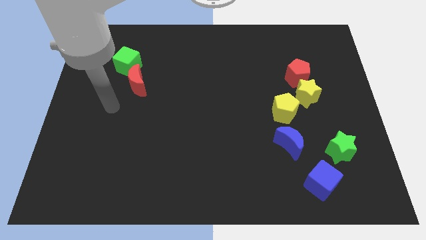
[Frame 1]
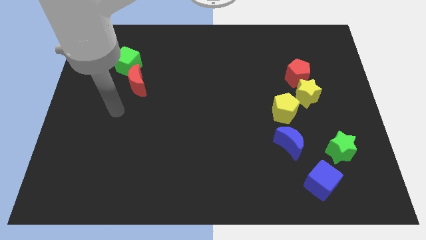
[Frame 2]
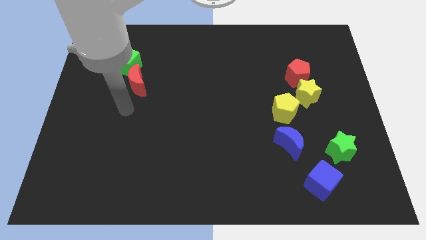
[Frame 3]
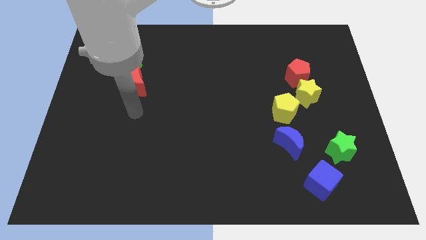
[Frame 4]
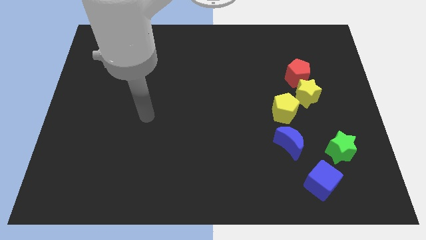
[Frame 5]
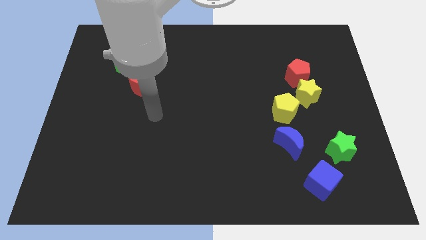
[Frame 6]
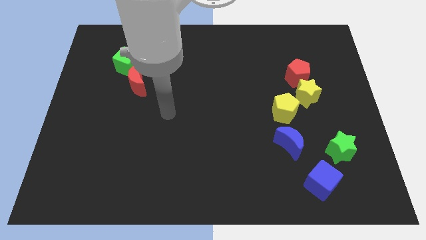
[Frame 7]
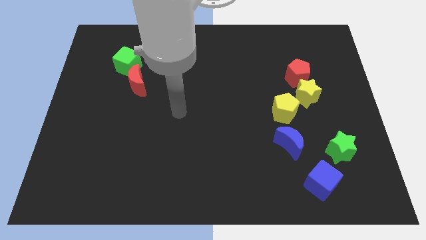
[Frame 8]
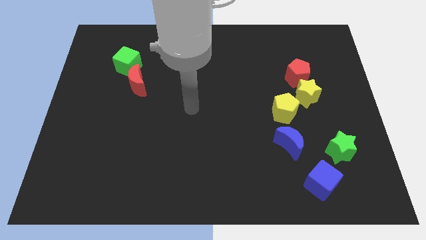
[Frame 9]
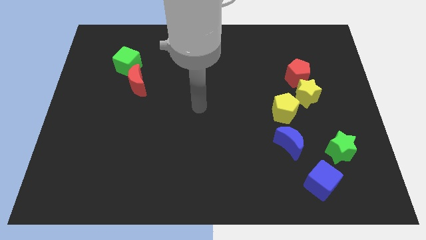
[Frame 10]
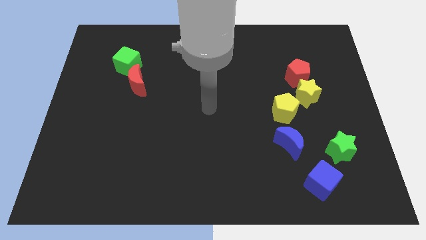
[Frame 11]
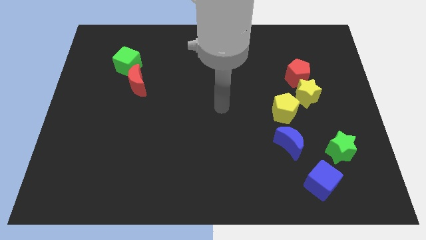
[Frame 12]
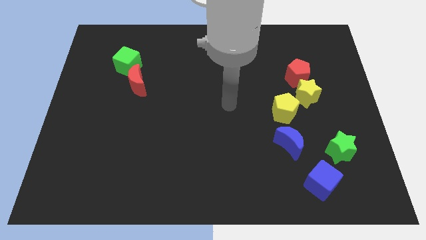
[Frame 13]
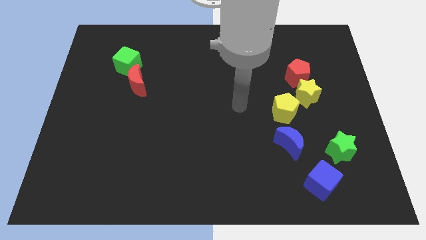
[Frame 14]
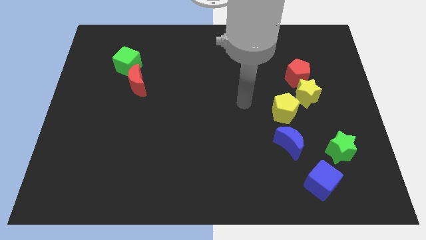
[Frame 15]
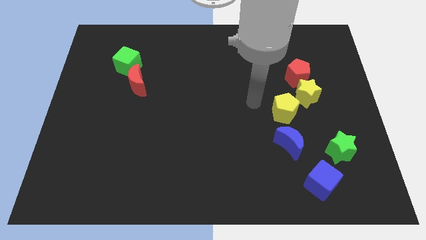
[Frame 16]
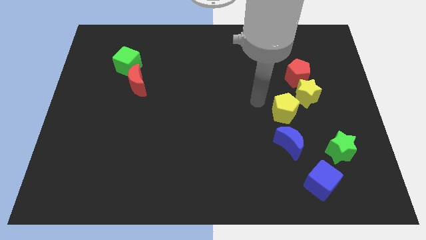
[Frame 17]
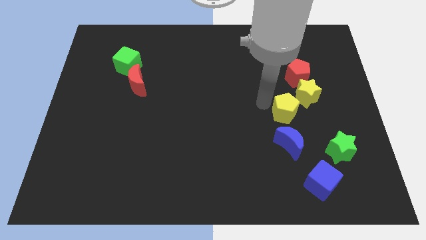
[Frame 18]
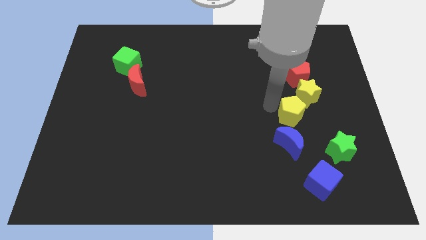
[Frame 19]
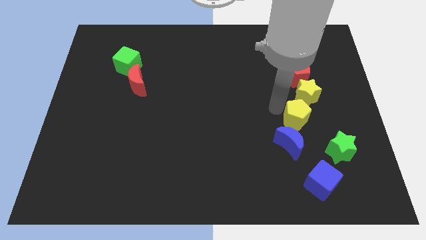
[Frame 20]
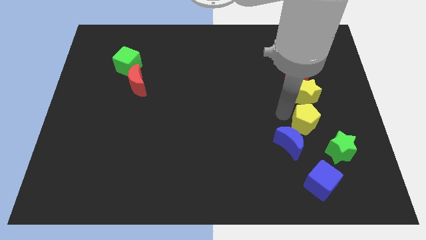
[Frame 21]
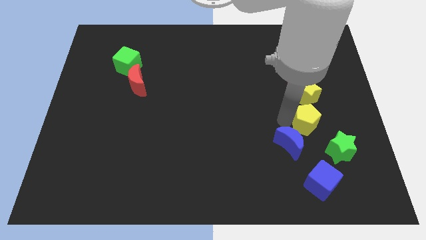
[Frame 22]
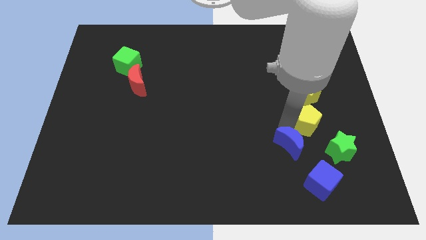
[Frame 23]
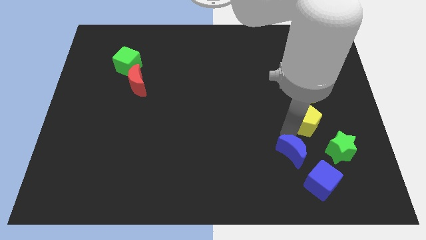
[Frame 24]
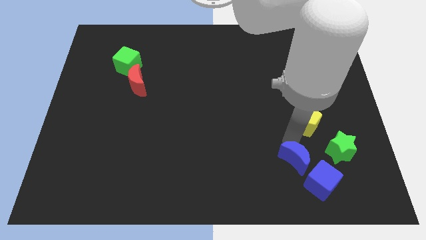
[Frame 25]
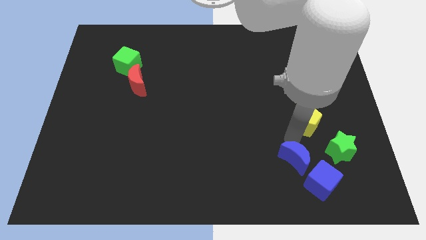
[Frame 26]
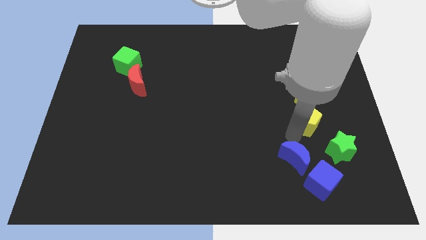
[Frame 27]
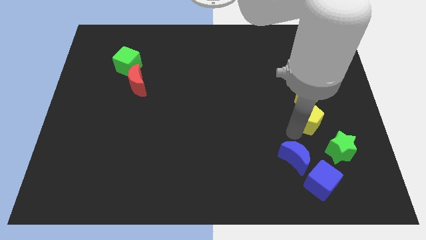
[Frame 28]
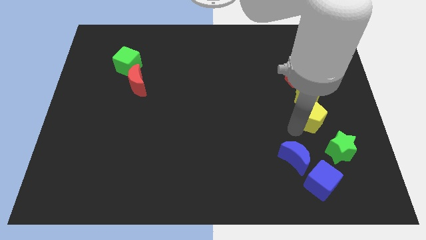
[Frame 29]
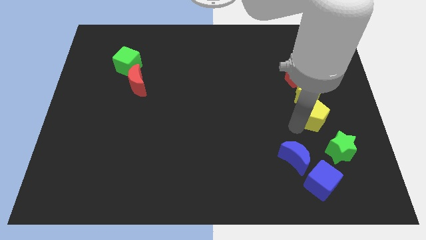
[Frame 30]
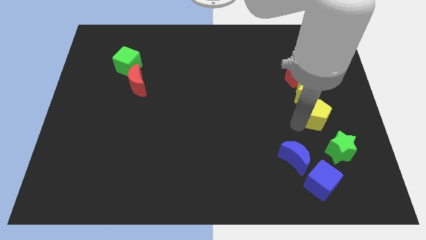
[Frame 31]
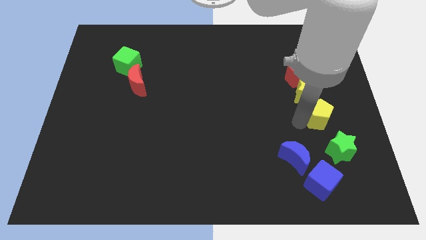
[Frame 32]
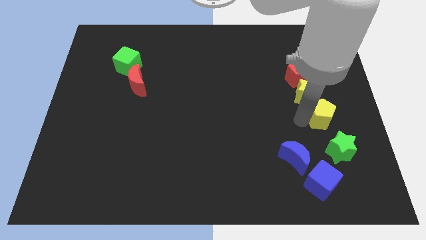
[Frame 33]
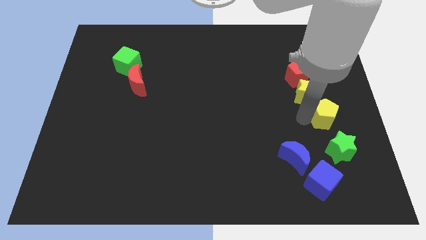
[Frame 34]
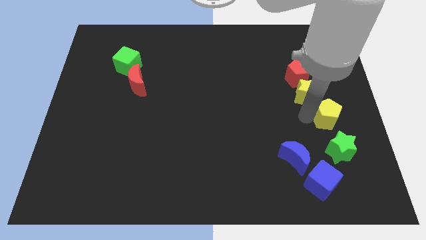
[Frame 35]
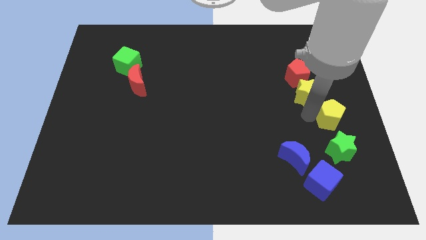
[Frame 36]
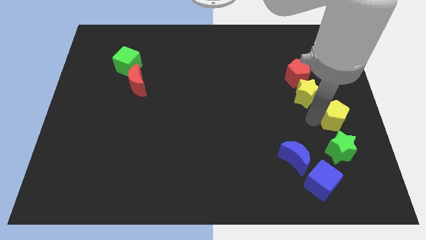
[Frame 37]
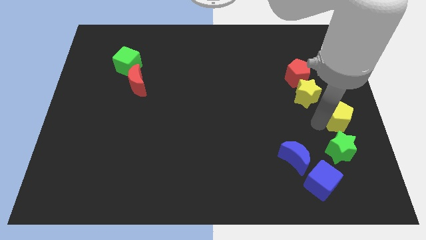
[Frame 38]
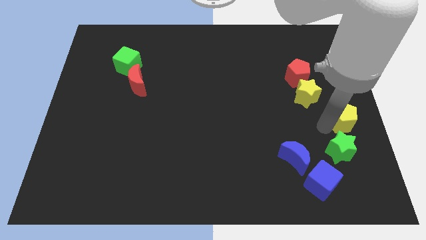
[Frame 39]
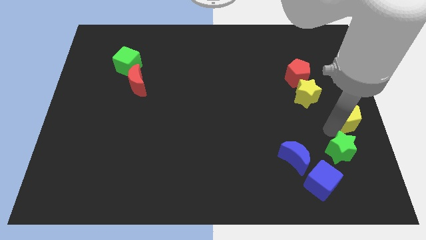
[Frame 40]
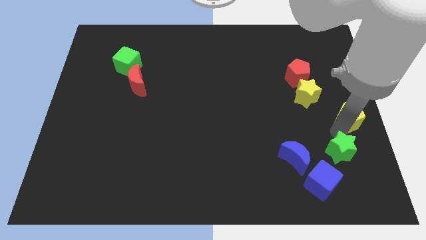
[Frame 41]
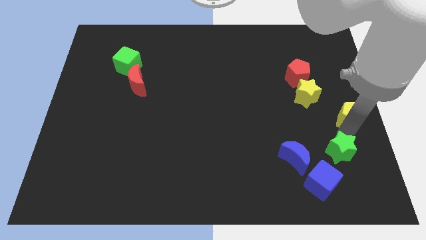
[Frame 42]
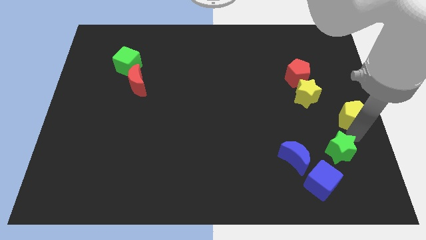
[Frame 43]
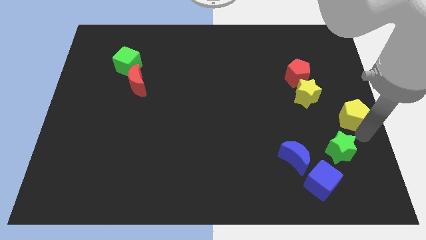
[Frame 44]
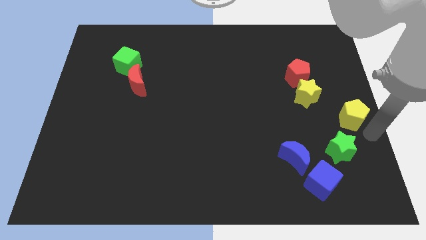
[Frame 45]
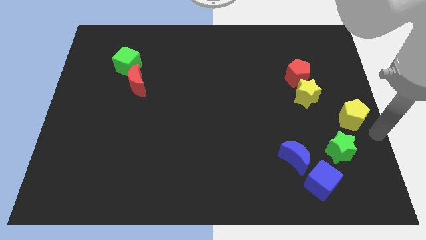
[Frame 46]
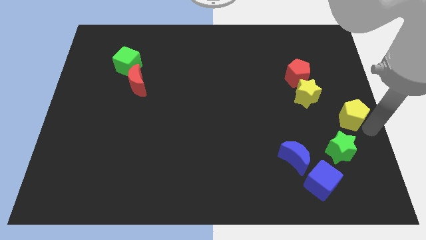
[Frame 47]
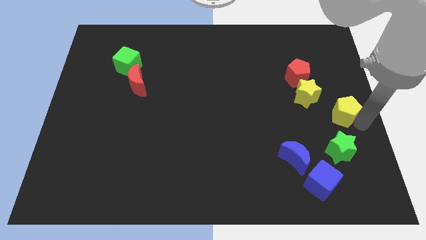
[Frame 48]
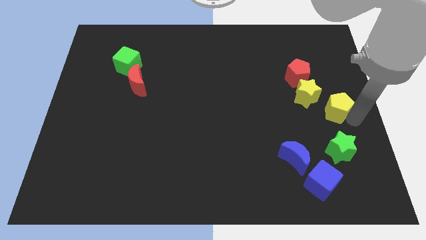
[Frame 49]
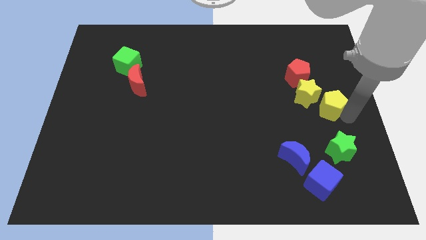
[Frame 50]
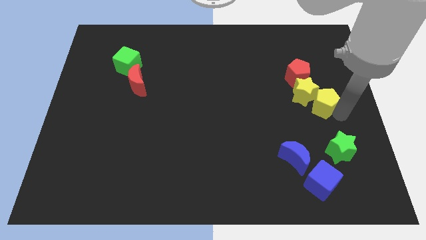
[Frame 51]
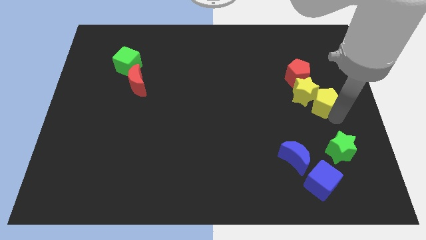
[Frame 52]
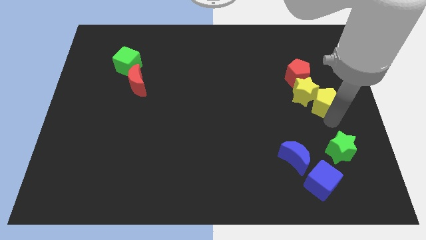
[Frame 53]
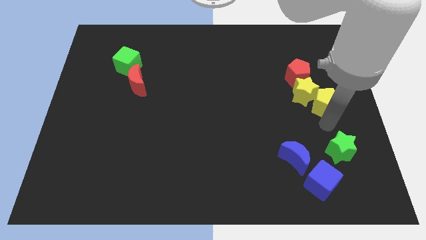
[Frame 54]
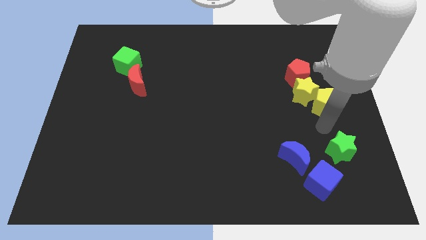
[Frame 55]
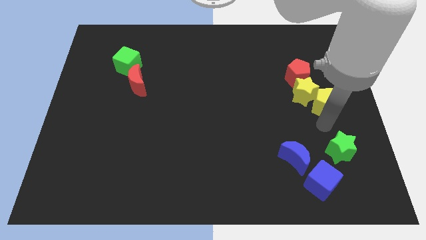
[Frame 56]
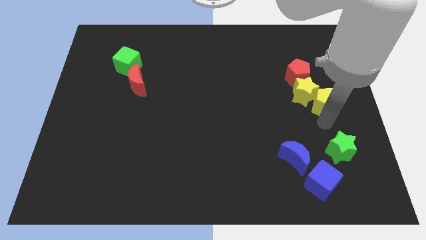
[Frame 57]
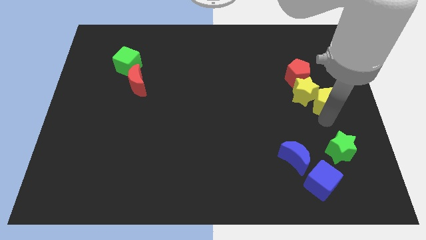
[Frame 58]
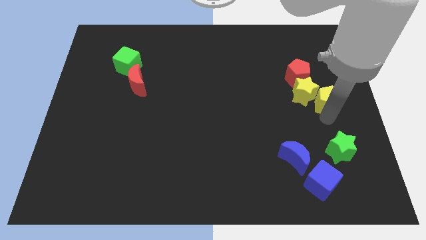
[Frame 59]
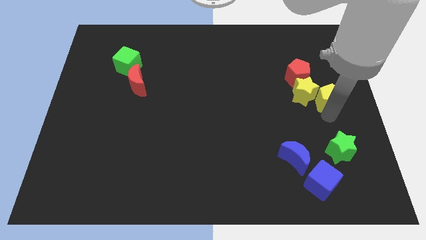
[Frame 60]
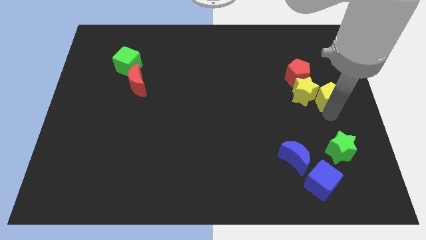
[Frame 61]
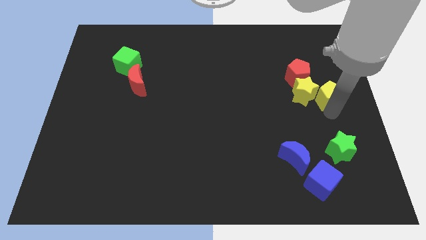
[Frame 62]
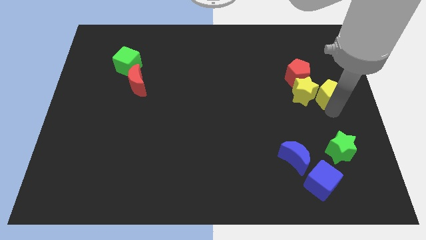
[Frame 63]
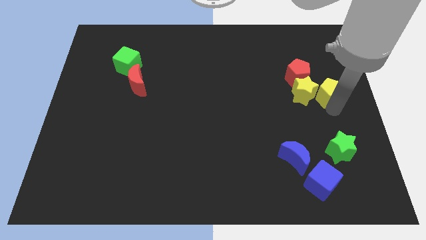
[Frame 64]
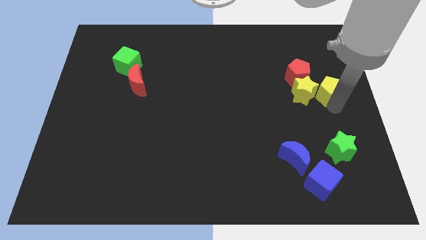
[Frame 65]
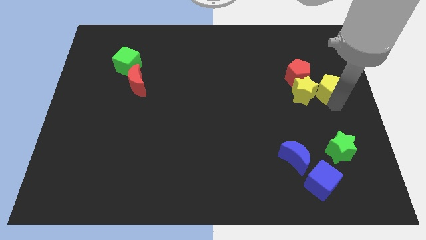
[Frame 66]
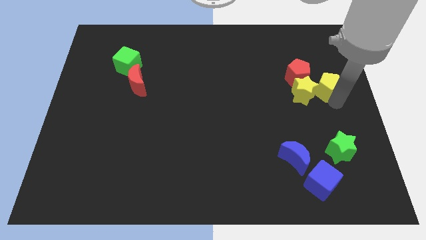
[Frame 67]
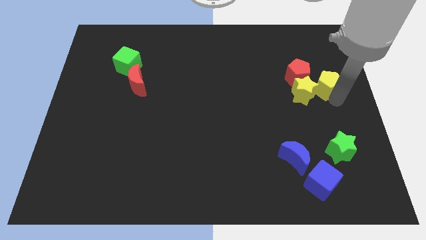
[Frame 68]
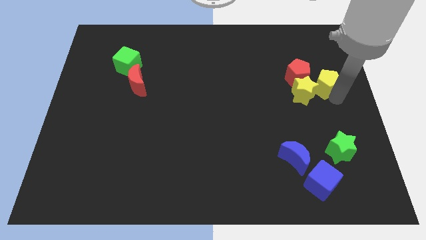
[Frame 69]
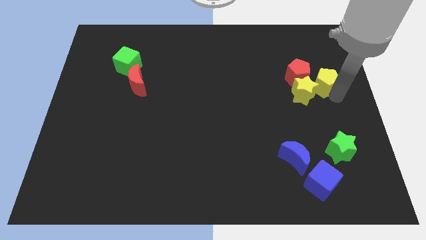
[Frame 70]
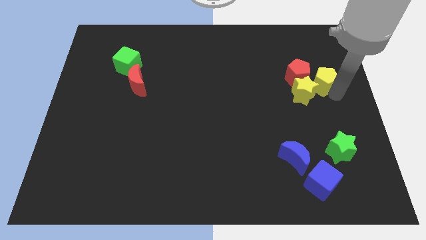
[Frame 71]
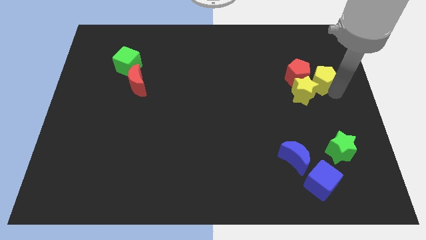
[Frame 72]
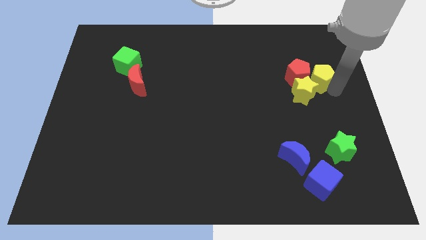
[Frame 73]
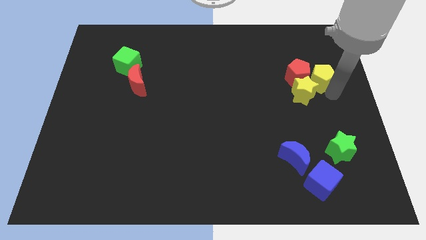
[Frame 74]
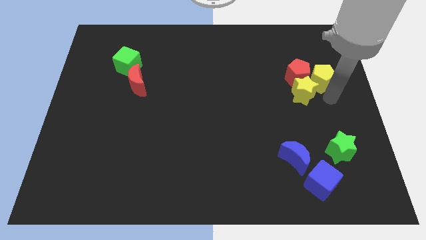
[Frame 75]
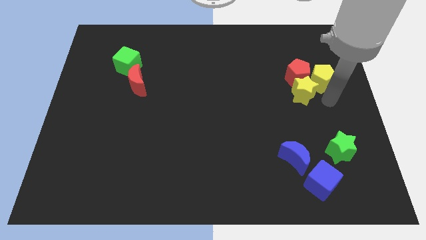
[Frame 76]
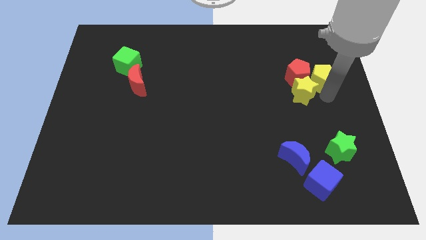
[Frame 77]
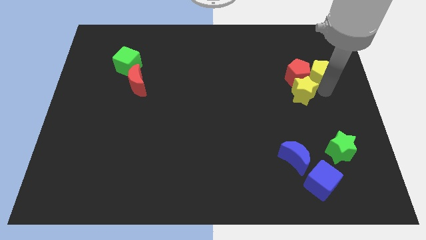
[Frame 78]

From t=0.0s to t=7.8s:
slide the yellow pentagon to the top right of the red pentagon

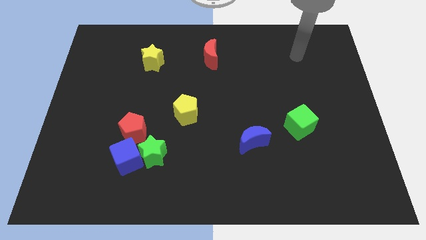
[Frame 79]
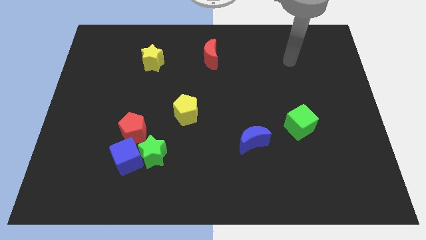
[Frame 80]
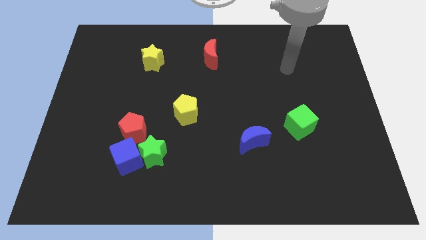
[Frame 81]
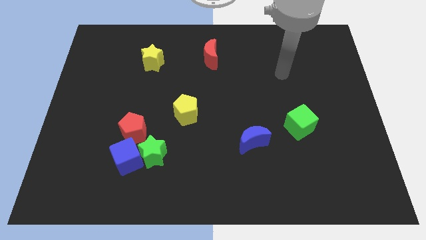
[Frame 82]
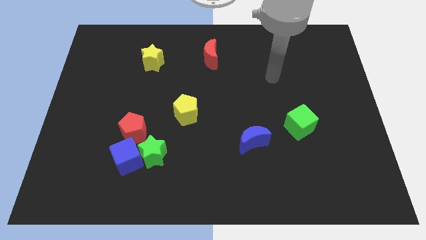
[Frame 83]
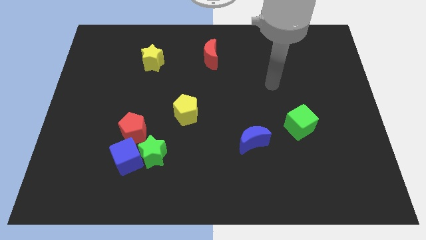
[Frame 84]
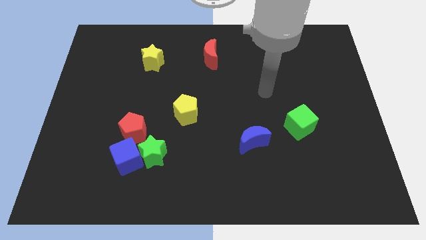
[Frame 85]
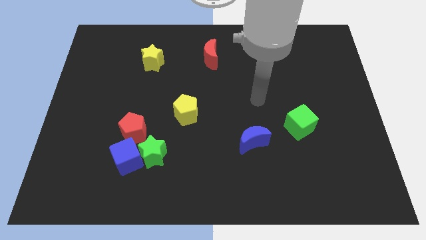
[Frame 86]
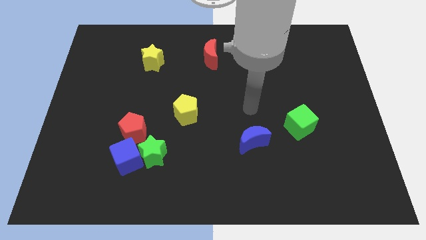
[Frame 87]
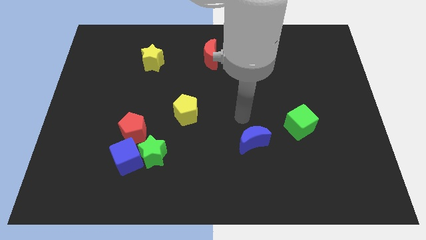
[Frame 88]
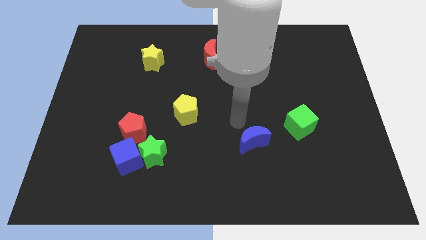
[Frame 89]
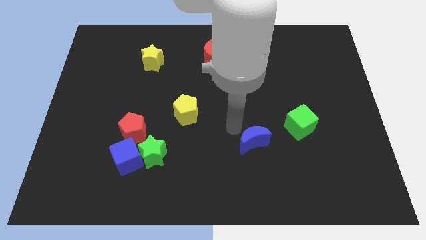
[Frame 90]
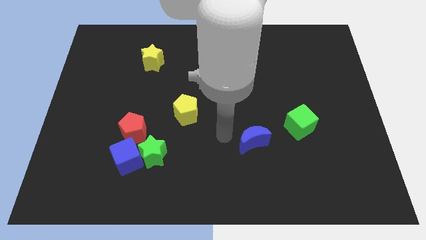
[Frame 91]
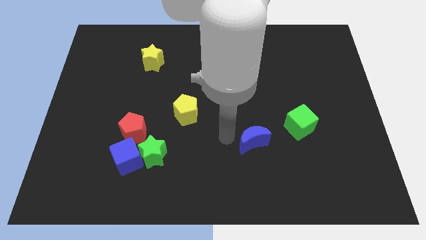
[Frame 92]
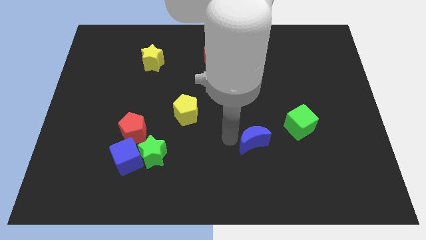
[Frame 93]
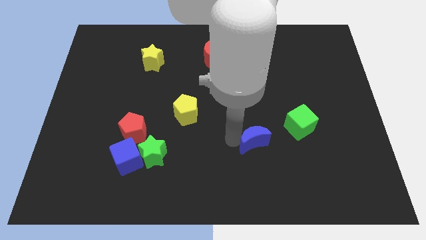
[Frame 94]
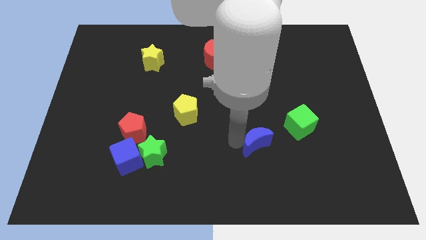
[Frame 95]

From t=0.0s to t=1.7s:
put the blue moon to the bottom left of the green cube
